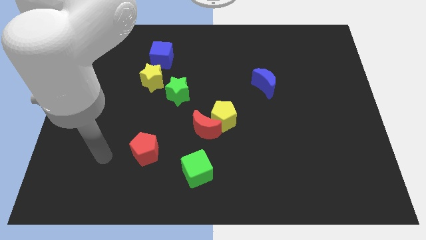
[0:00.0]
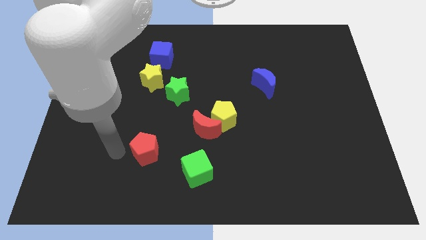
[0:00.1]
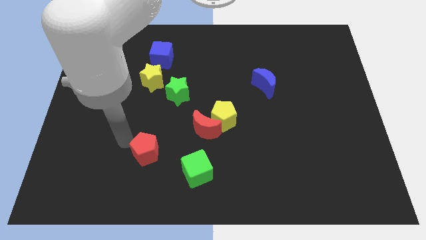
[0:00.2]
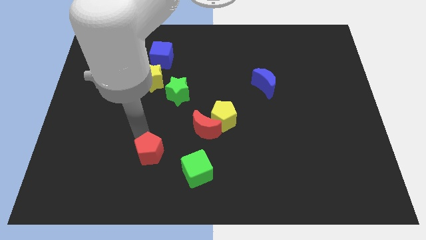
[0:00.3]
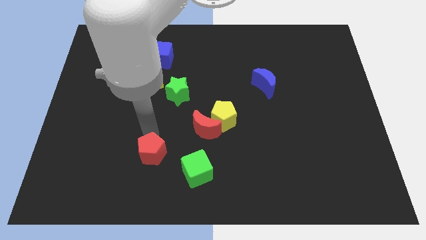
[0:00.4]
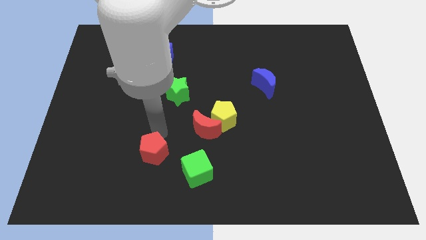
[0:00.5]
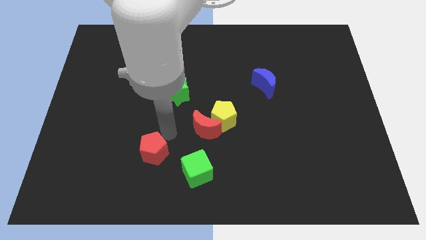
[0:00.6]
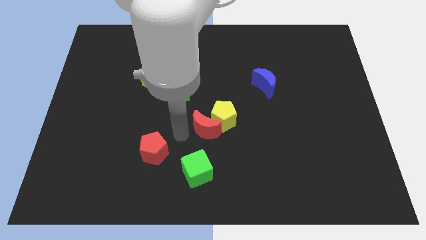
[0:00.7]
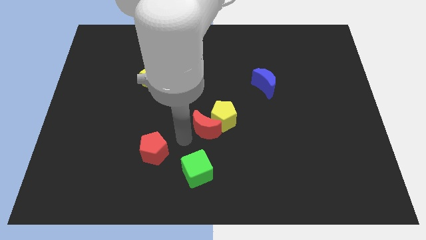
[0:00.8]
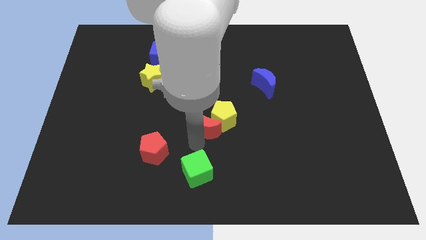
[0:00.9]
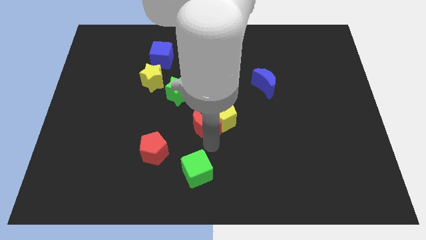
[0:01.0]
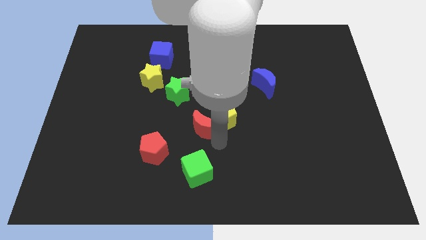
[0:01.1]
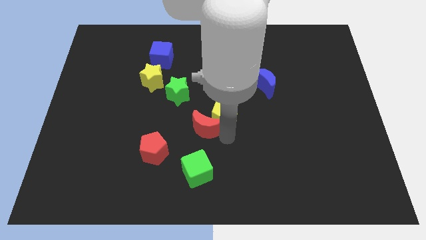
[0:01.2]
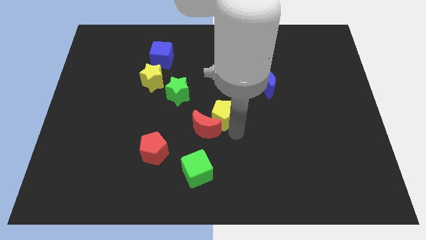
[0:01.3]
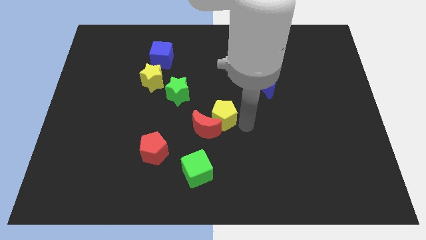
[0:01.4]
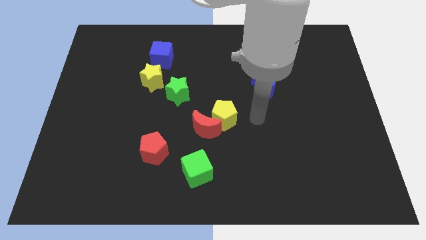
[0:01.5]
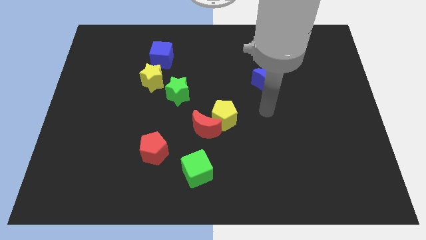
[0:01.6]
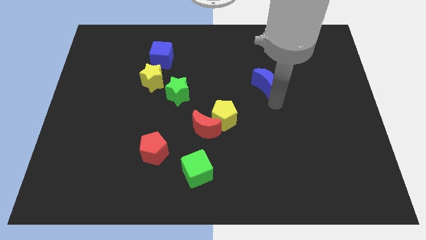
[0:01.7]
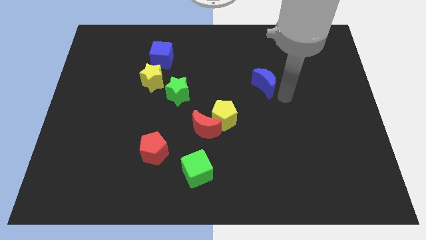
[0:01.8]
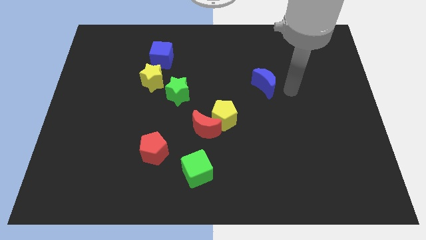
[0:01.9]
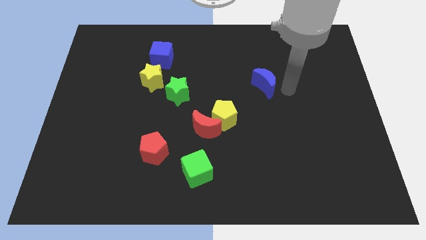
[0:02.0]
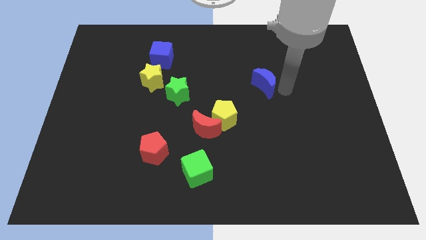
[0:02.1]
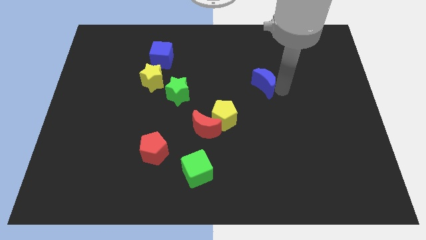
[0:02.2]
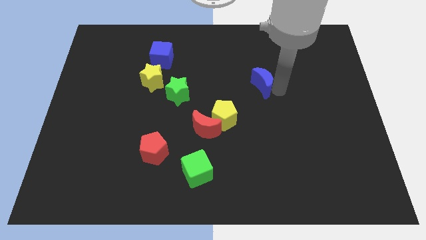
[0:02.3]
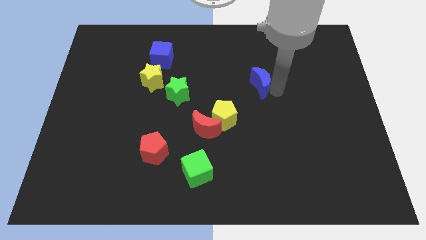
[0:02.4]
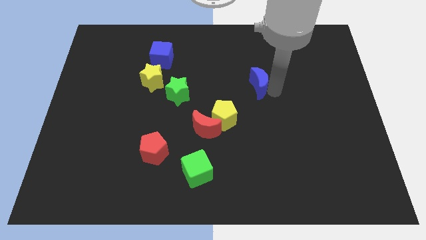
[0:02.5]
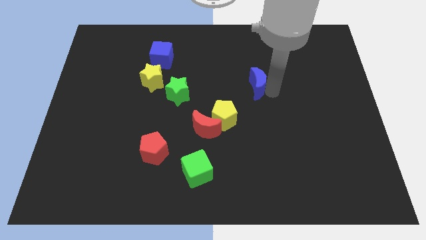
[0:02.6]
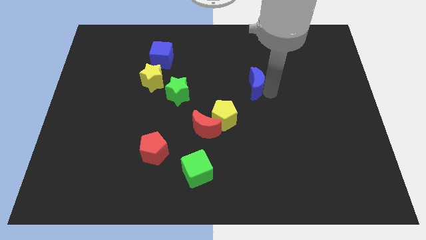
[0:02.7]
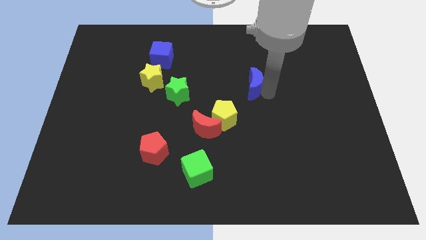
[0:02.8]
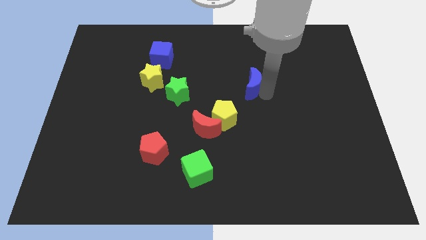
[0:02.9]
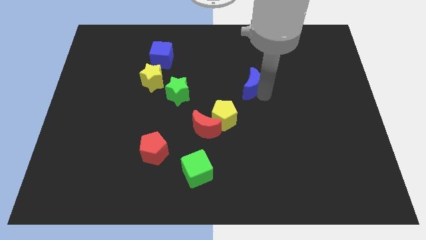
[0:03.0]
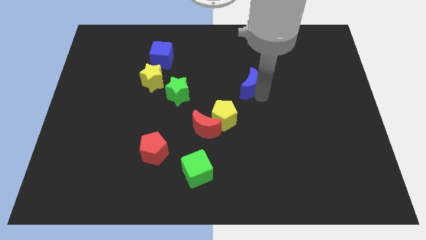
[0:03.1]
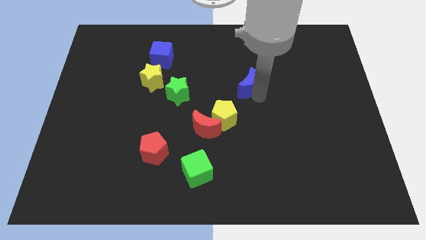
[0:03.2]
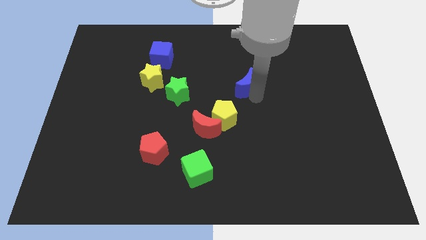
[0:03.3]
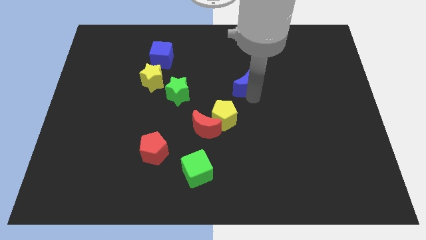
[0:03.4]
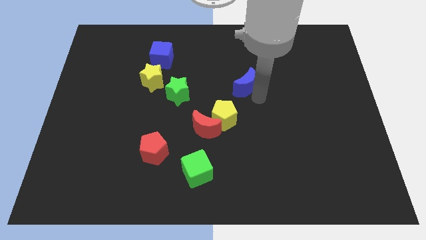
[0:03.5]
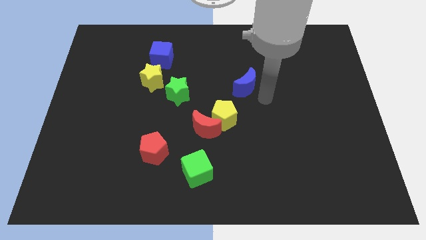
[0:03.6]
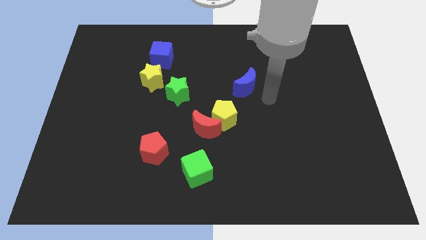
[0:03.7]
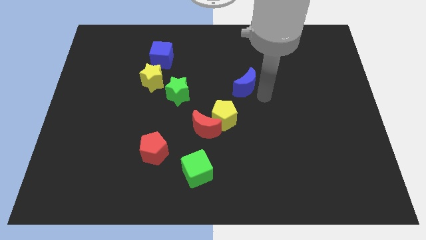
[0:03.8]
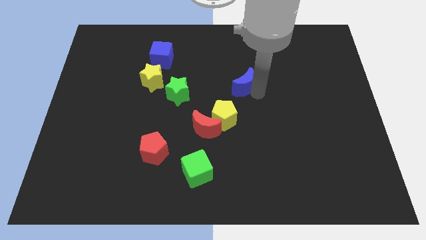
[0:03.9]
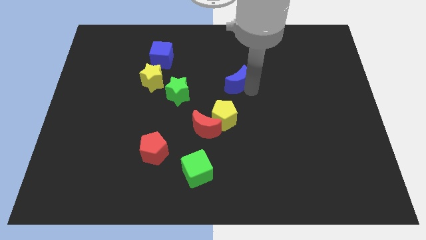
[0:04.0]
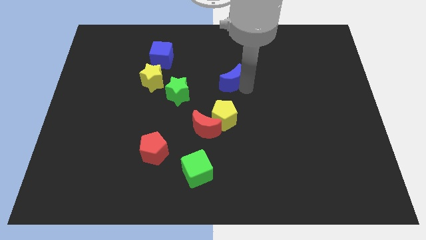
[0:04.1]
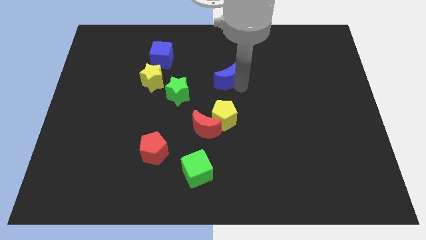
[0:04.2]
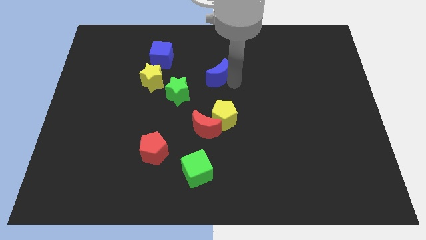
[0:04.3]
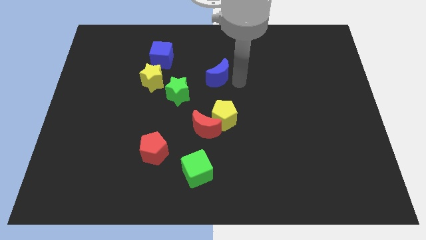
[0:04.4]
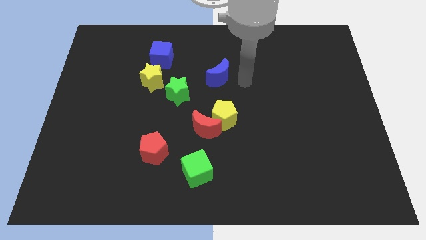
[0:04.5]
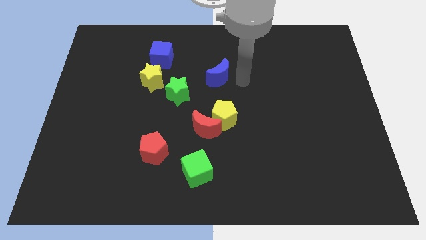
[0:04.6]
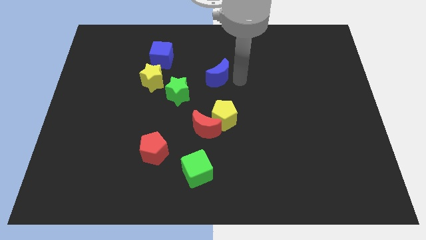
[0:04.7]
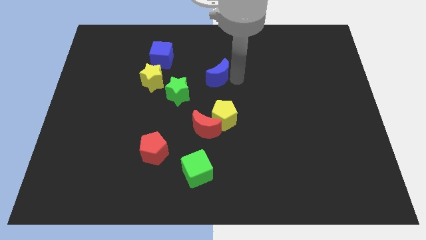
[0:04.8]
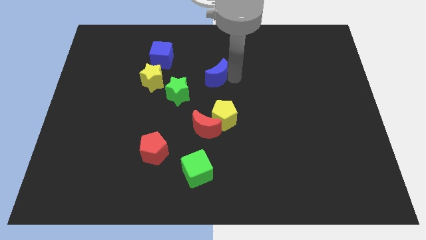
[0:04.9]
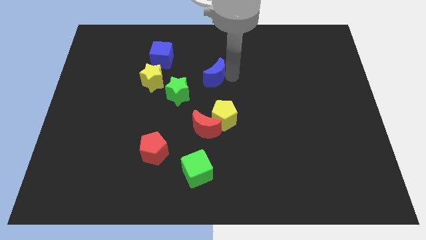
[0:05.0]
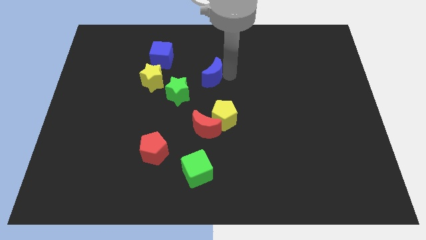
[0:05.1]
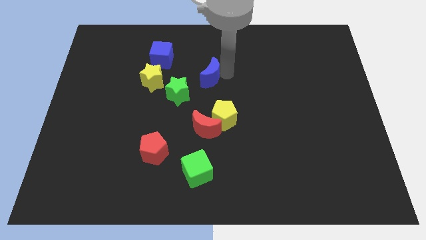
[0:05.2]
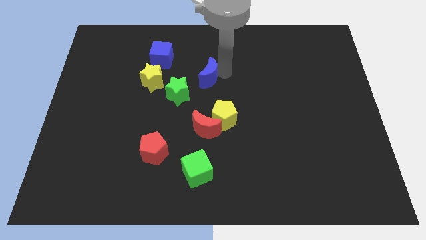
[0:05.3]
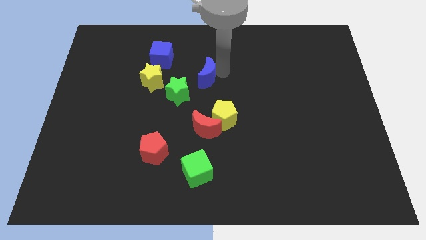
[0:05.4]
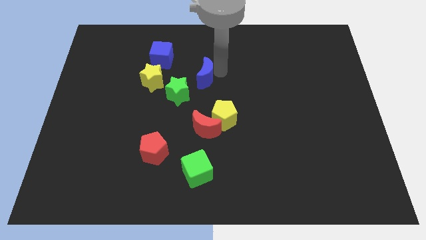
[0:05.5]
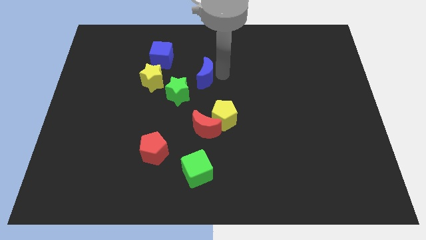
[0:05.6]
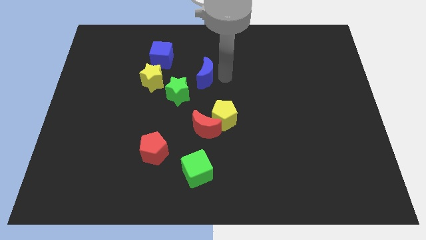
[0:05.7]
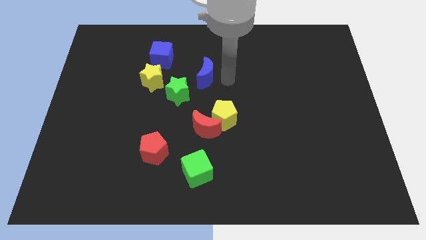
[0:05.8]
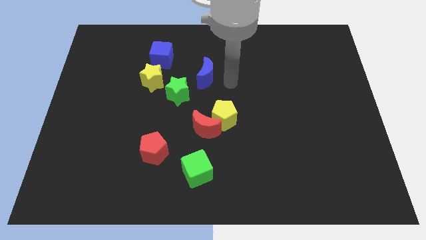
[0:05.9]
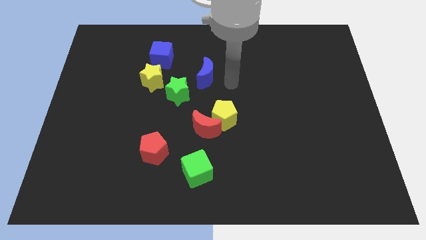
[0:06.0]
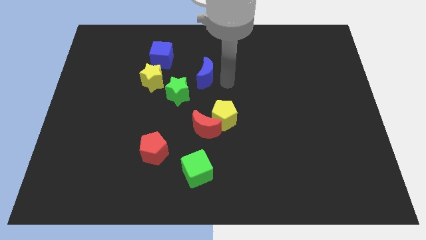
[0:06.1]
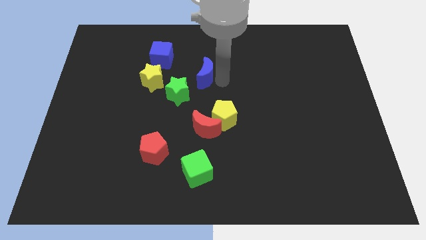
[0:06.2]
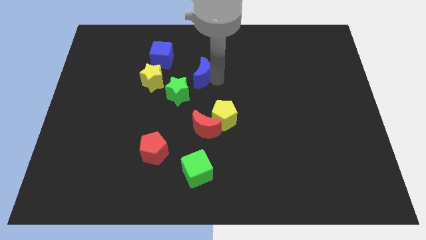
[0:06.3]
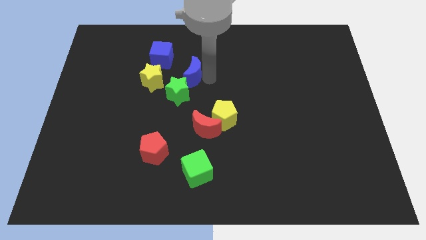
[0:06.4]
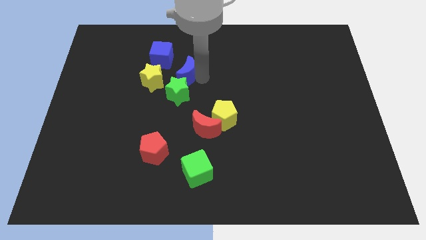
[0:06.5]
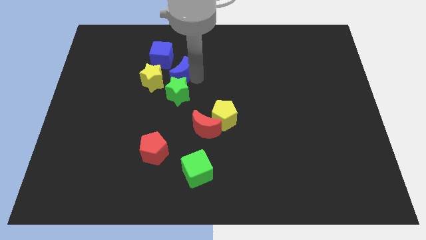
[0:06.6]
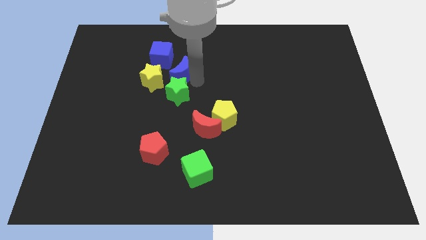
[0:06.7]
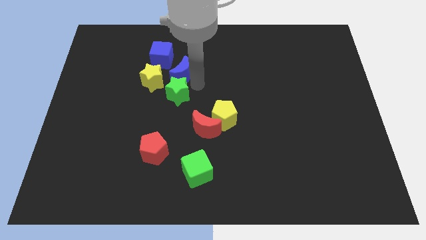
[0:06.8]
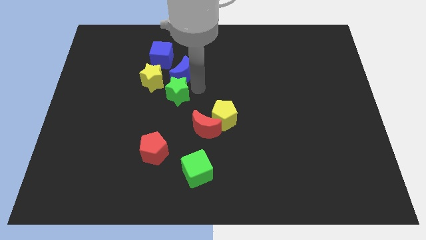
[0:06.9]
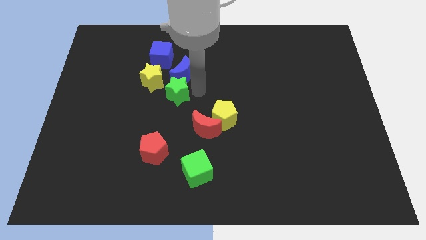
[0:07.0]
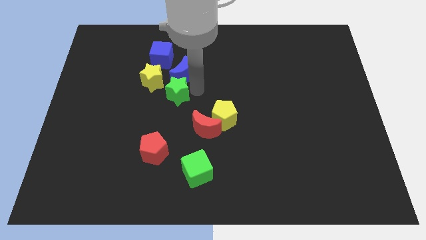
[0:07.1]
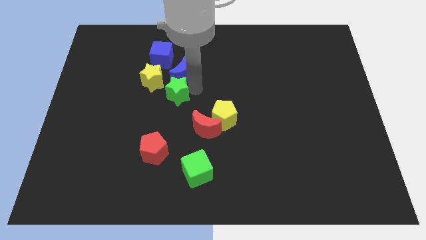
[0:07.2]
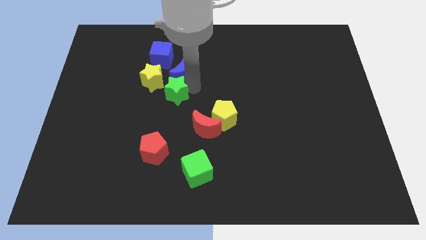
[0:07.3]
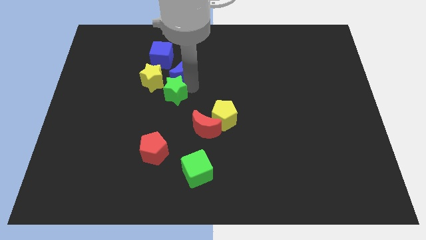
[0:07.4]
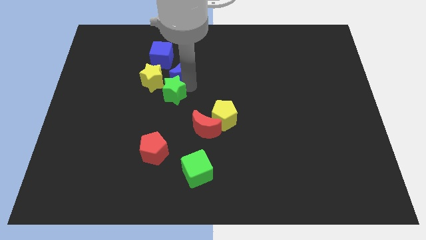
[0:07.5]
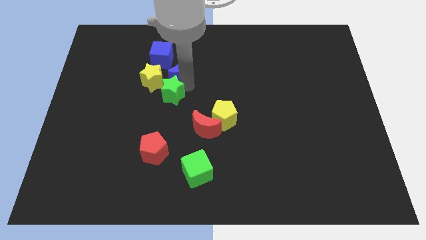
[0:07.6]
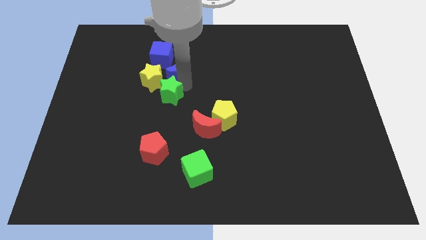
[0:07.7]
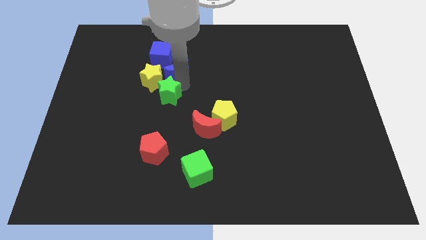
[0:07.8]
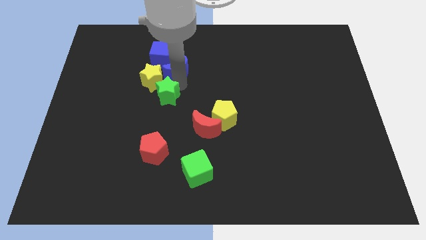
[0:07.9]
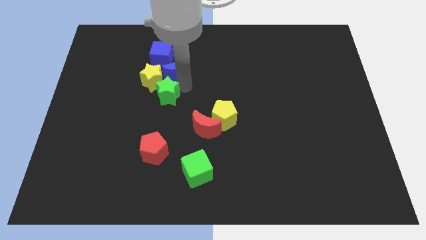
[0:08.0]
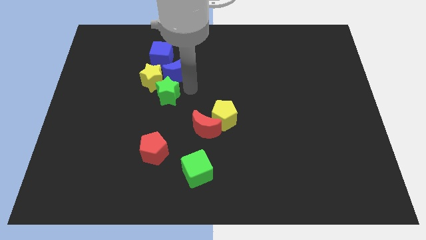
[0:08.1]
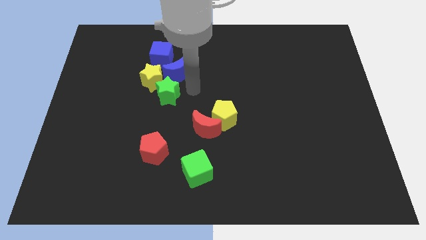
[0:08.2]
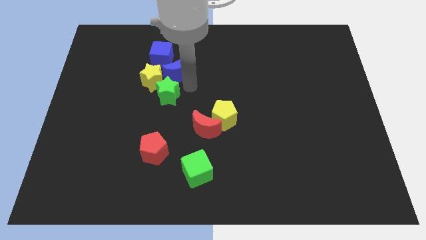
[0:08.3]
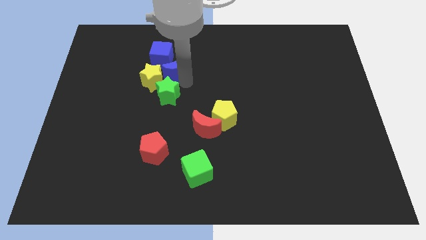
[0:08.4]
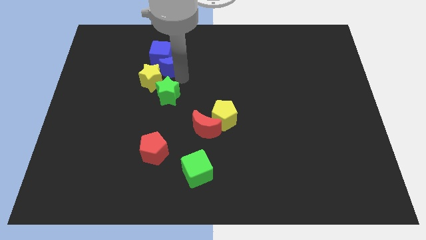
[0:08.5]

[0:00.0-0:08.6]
put the blue moon to the blue cube
